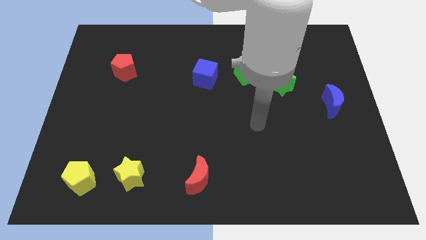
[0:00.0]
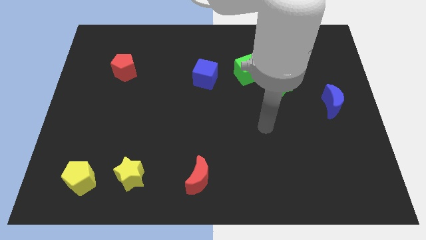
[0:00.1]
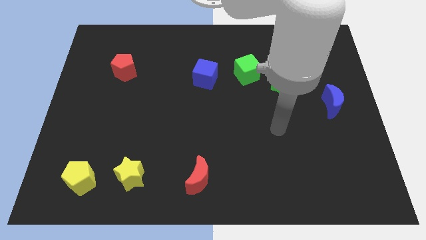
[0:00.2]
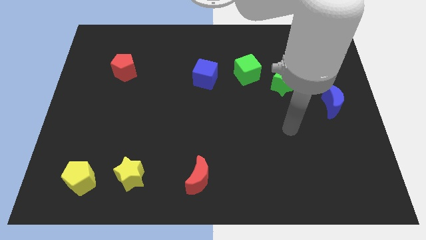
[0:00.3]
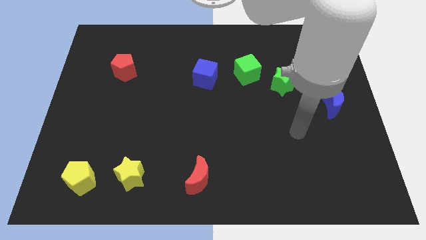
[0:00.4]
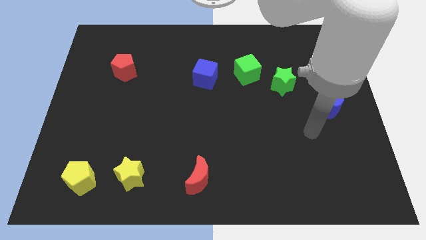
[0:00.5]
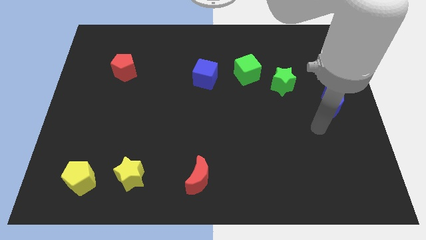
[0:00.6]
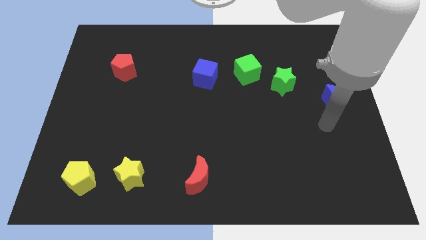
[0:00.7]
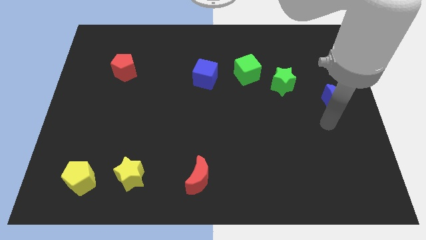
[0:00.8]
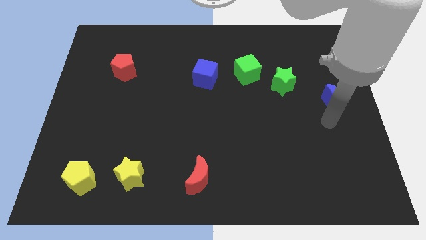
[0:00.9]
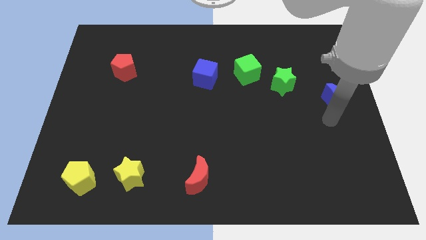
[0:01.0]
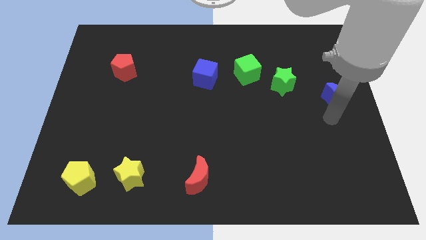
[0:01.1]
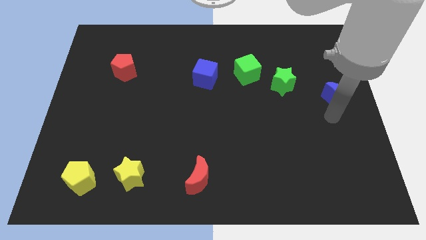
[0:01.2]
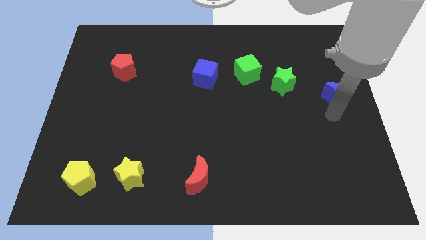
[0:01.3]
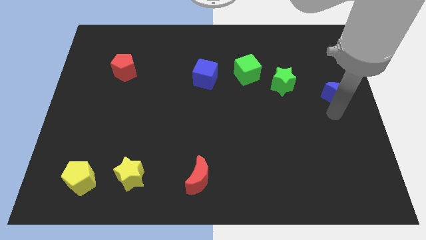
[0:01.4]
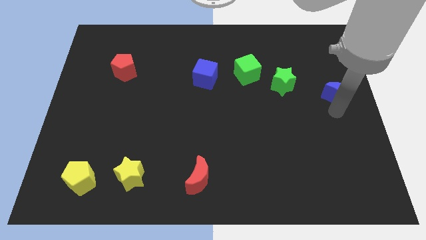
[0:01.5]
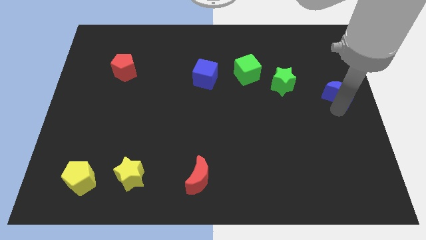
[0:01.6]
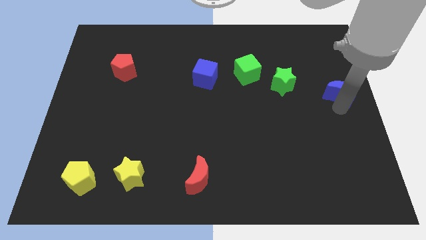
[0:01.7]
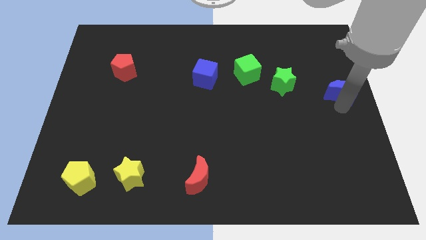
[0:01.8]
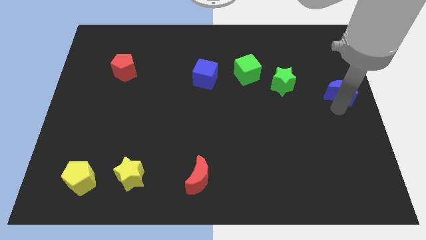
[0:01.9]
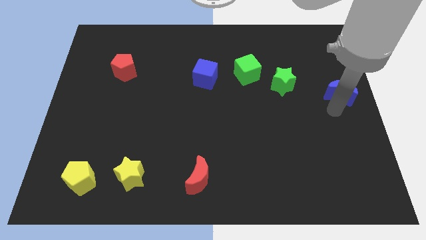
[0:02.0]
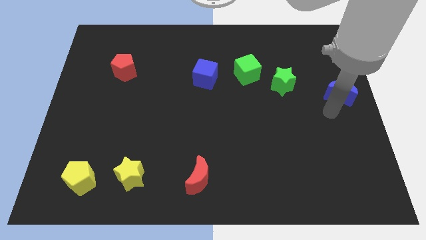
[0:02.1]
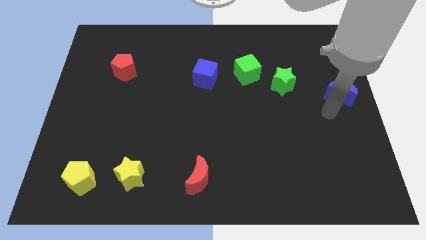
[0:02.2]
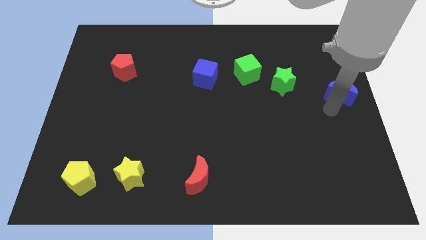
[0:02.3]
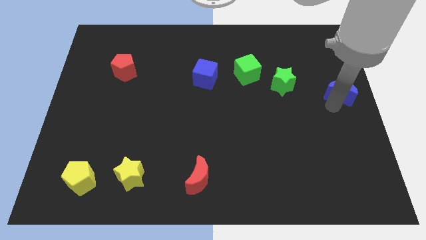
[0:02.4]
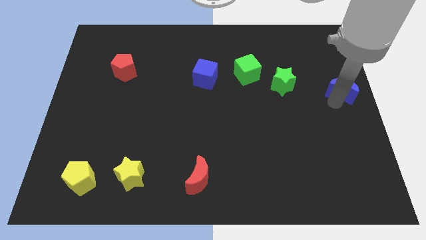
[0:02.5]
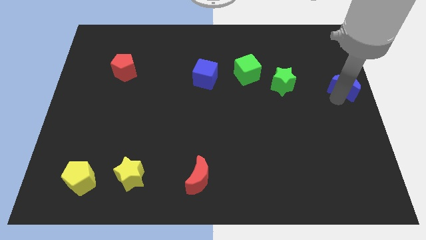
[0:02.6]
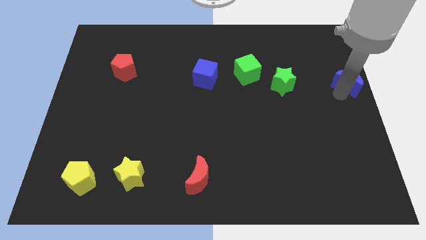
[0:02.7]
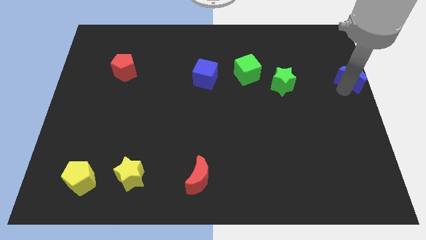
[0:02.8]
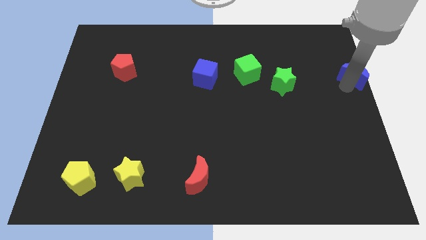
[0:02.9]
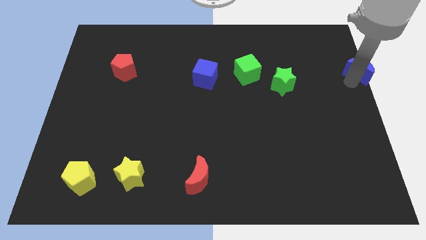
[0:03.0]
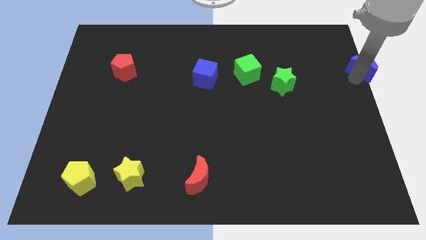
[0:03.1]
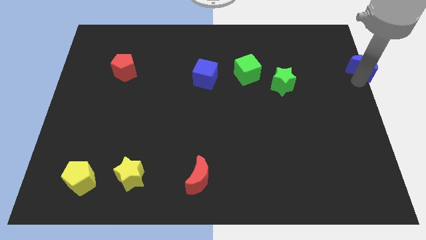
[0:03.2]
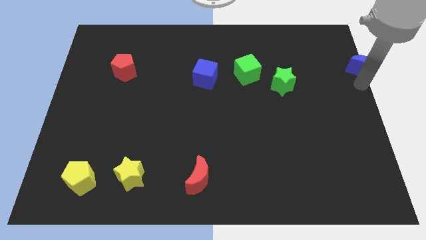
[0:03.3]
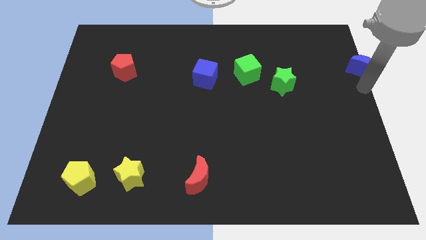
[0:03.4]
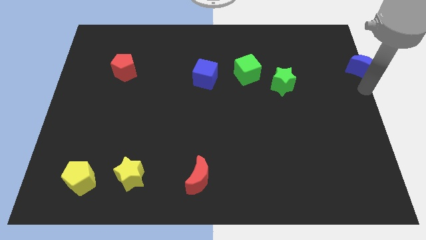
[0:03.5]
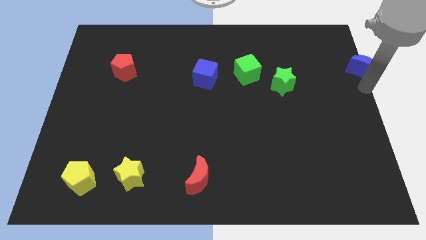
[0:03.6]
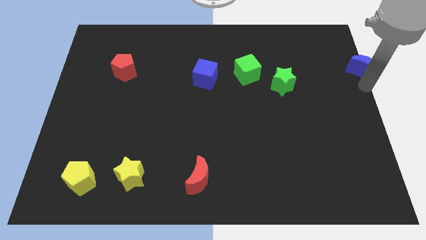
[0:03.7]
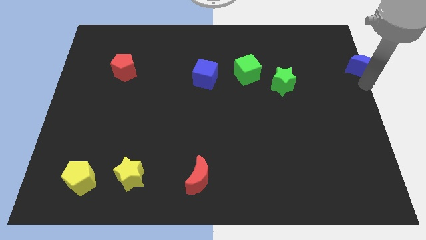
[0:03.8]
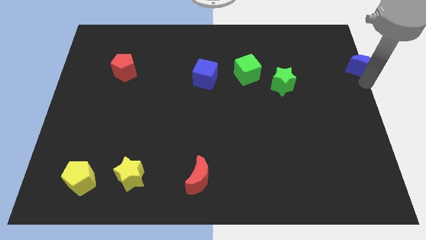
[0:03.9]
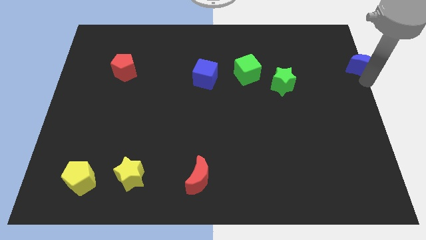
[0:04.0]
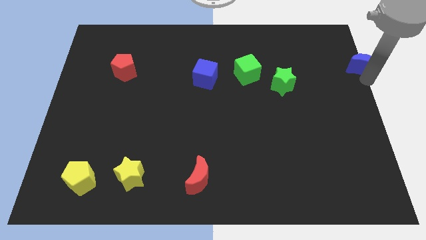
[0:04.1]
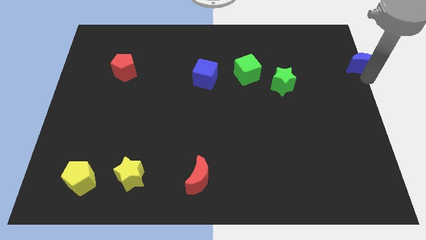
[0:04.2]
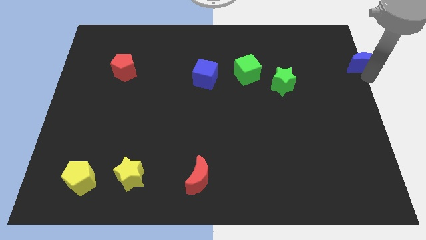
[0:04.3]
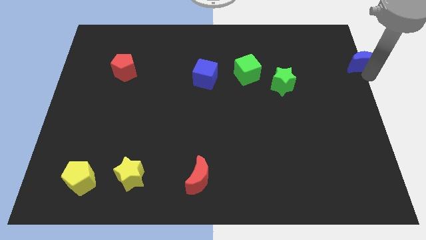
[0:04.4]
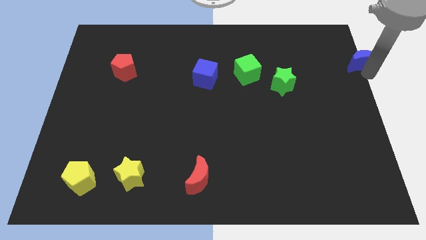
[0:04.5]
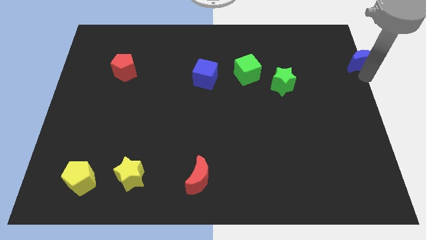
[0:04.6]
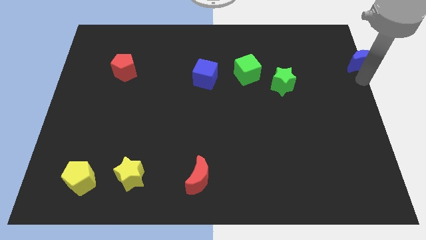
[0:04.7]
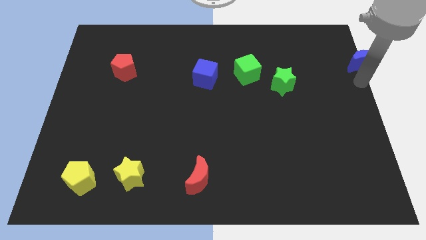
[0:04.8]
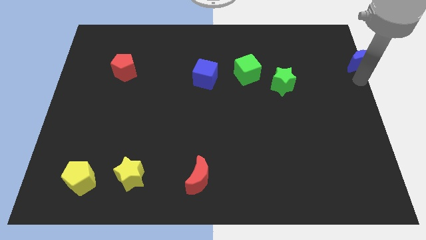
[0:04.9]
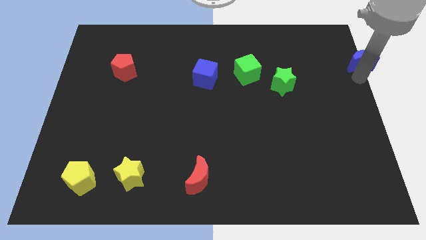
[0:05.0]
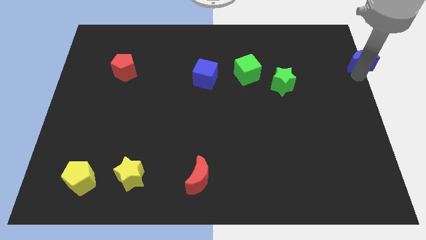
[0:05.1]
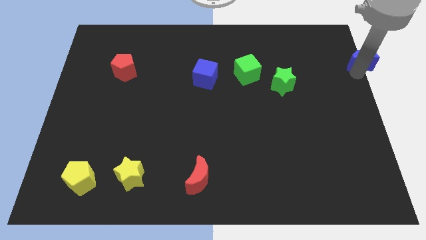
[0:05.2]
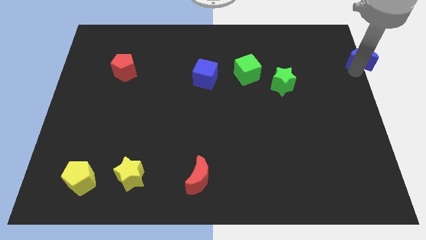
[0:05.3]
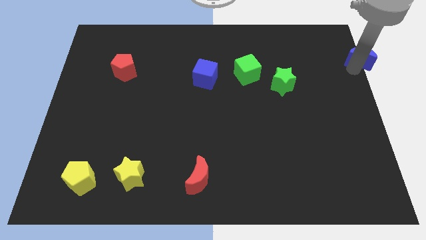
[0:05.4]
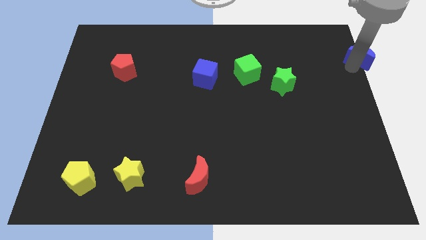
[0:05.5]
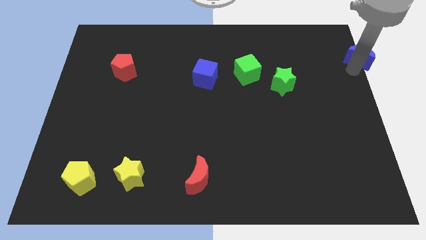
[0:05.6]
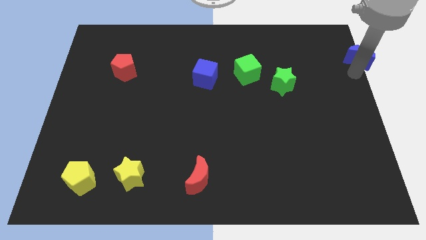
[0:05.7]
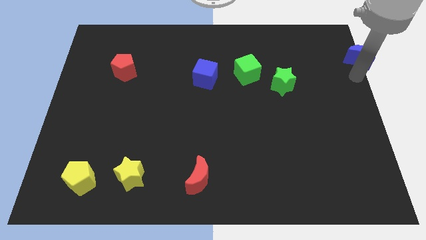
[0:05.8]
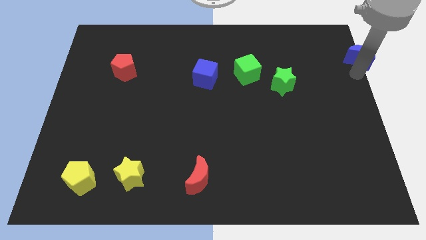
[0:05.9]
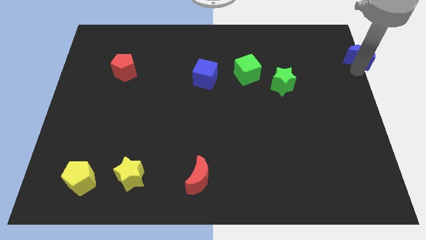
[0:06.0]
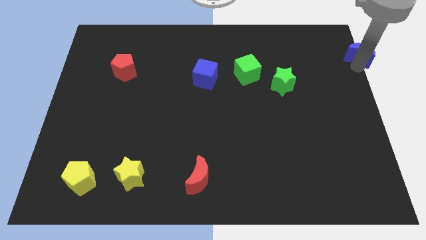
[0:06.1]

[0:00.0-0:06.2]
move the blue moon to the upper right corner

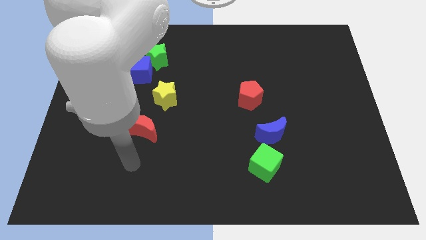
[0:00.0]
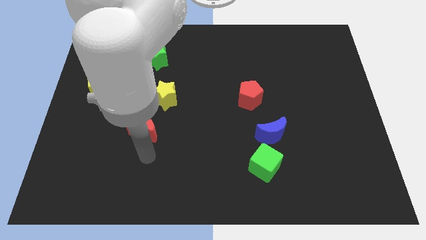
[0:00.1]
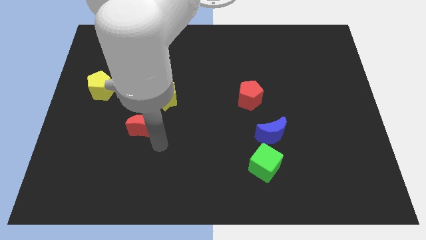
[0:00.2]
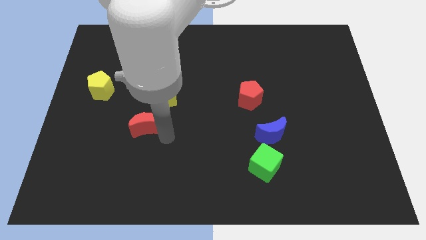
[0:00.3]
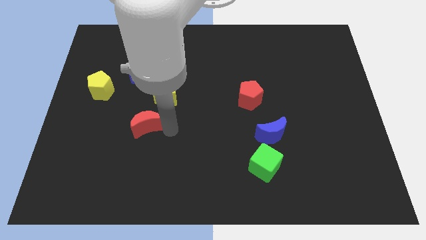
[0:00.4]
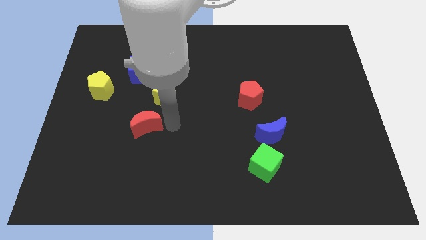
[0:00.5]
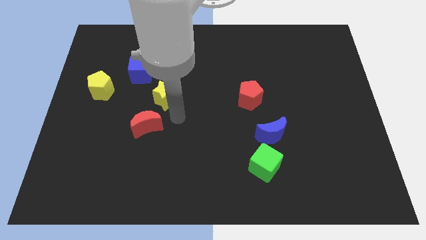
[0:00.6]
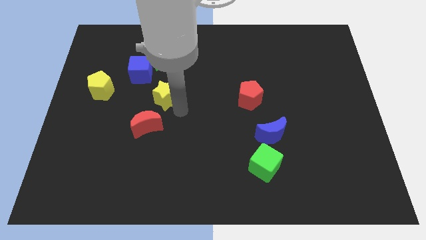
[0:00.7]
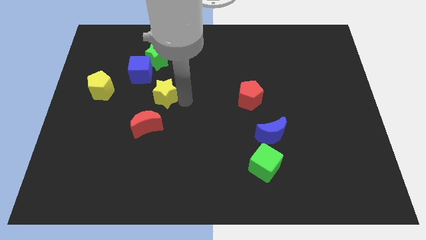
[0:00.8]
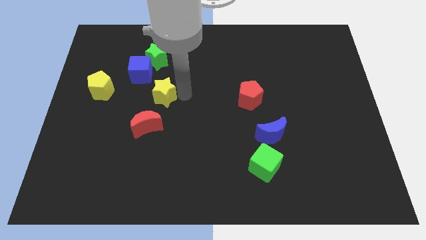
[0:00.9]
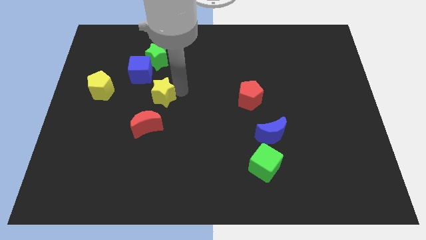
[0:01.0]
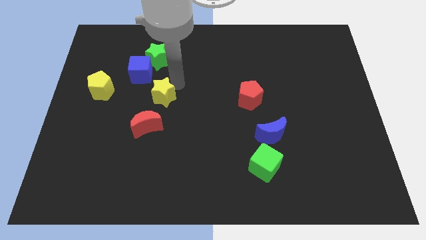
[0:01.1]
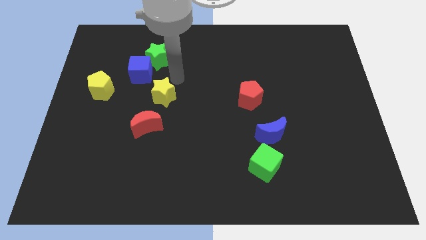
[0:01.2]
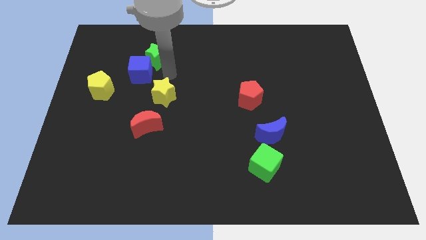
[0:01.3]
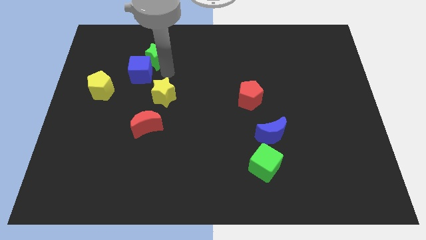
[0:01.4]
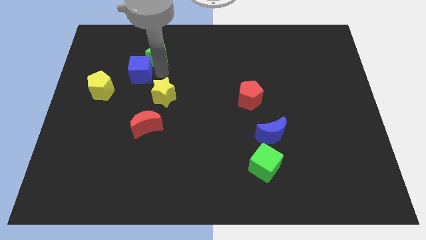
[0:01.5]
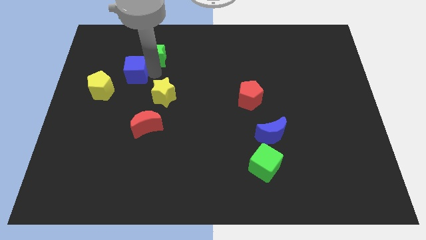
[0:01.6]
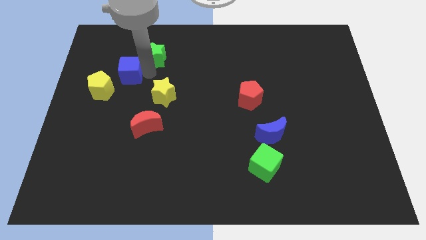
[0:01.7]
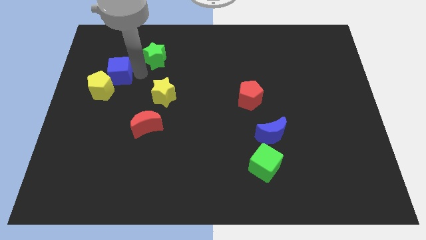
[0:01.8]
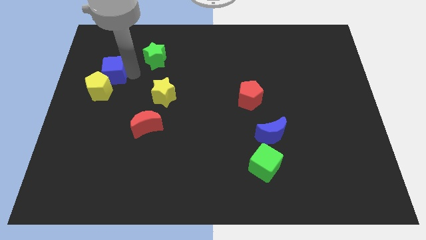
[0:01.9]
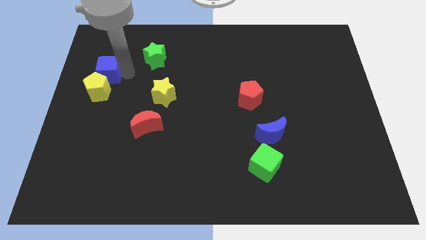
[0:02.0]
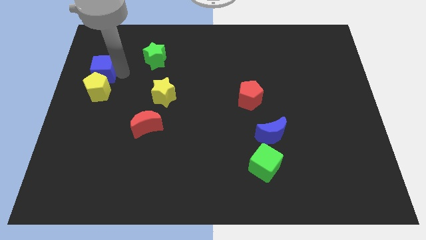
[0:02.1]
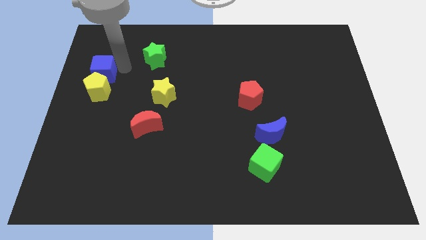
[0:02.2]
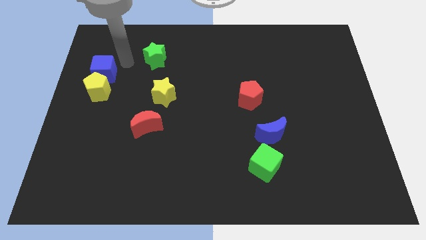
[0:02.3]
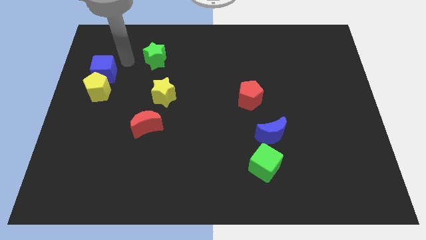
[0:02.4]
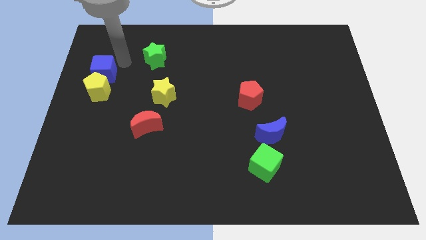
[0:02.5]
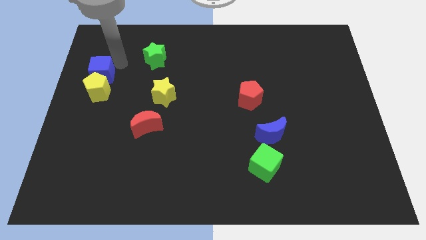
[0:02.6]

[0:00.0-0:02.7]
put the blue cube to the left side of the board
